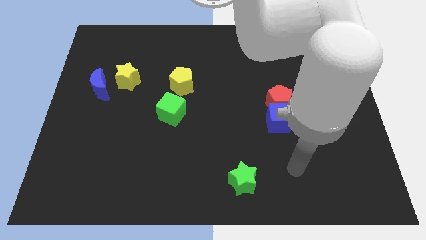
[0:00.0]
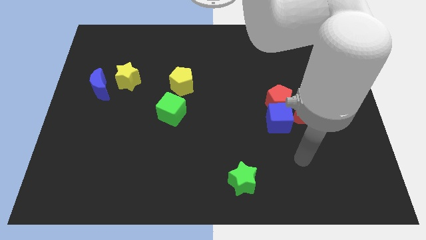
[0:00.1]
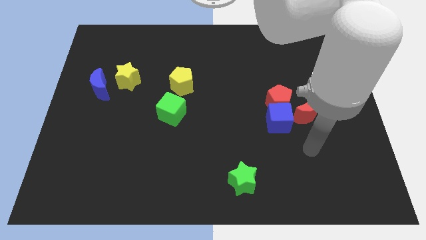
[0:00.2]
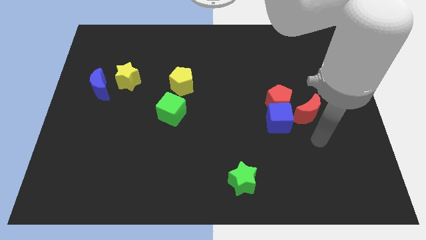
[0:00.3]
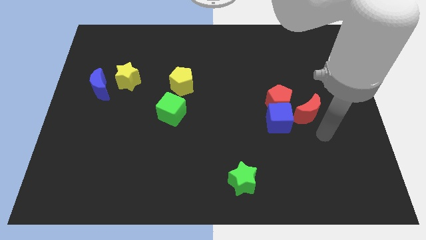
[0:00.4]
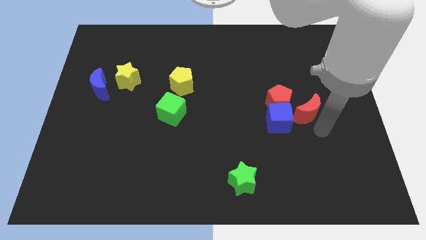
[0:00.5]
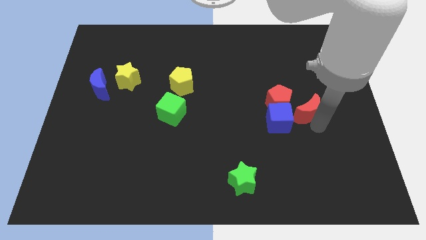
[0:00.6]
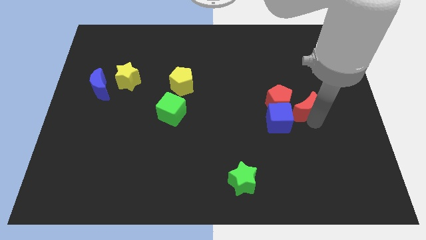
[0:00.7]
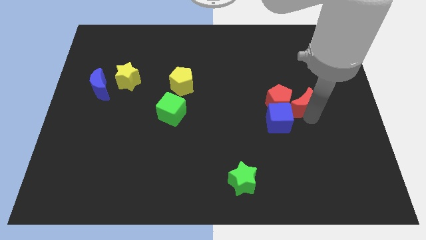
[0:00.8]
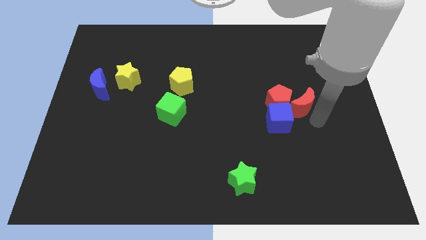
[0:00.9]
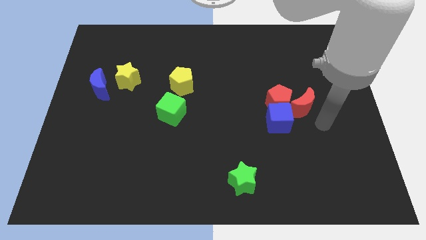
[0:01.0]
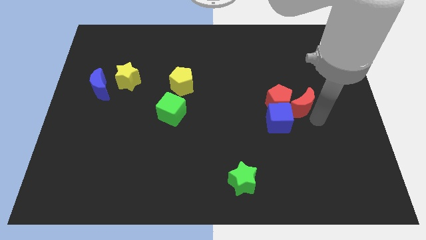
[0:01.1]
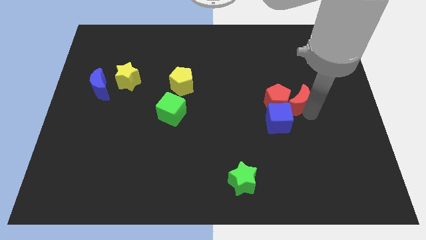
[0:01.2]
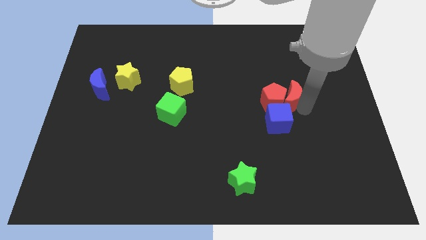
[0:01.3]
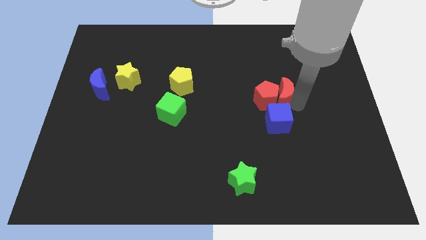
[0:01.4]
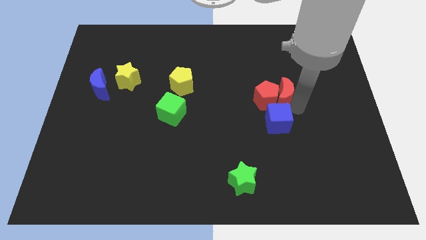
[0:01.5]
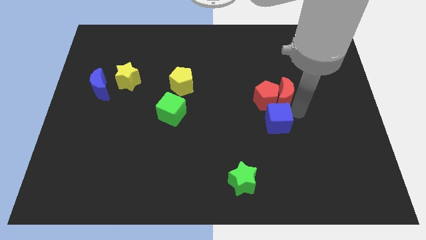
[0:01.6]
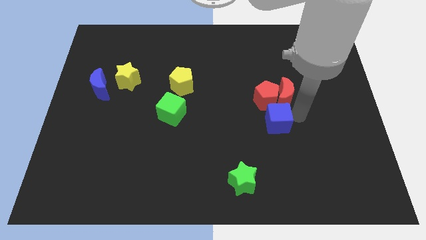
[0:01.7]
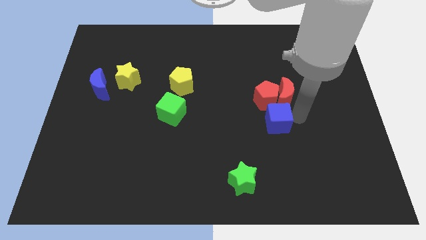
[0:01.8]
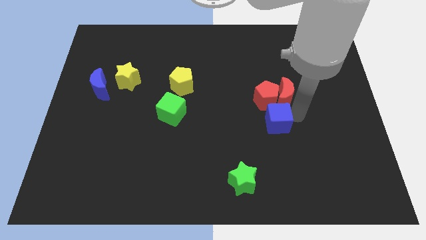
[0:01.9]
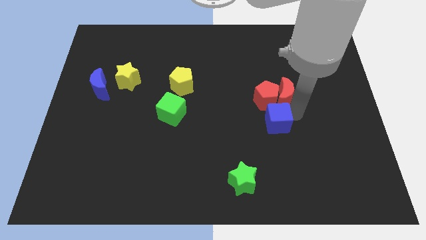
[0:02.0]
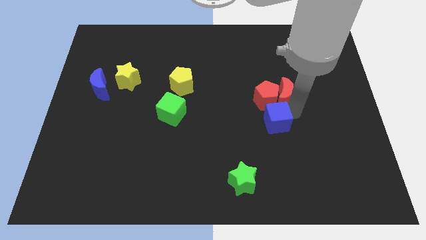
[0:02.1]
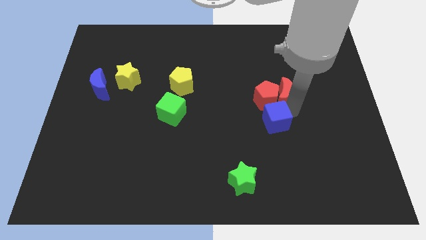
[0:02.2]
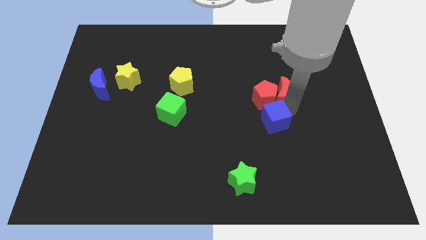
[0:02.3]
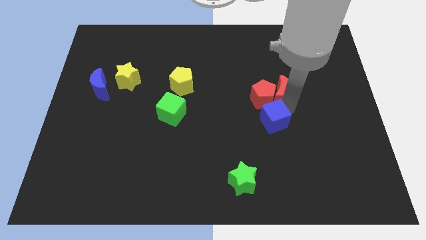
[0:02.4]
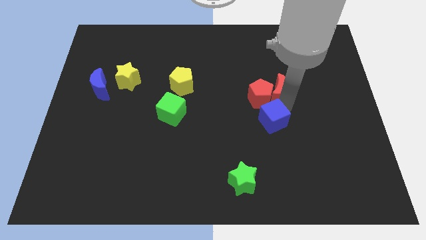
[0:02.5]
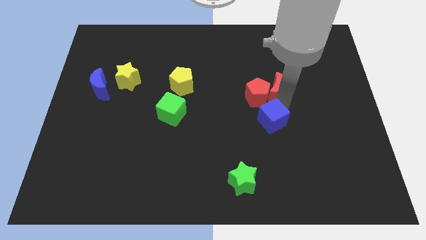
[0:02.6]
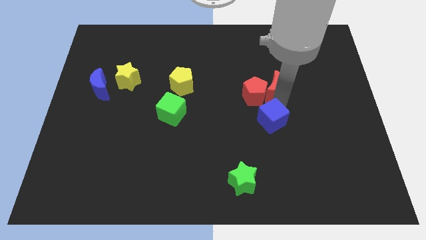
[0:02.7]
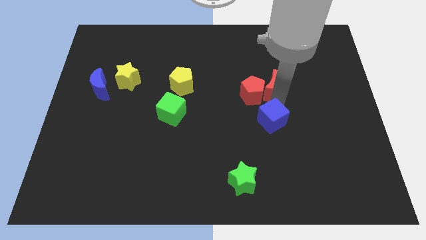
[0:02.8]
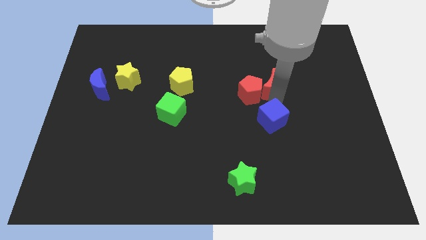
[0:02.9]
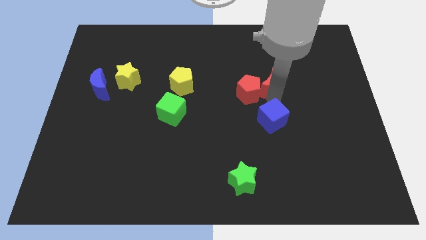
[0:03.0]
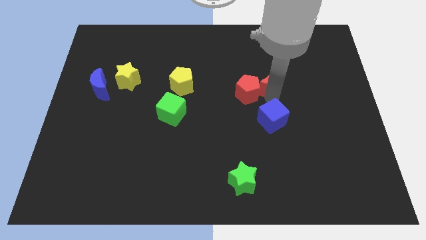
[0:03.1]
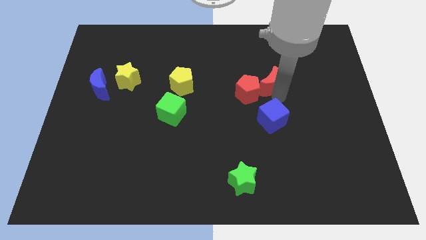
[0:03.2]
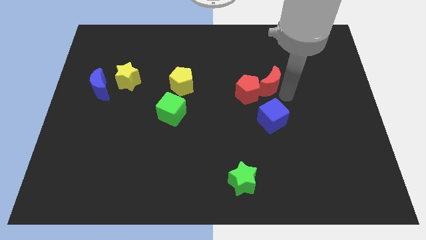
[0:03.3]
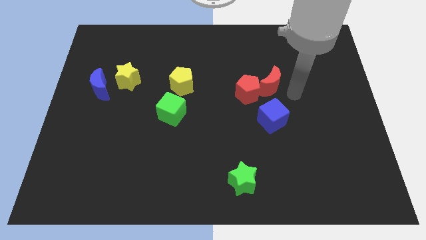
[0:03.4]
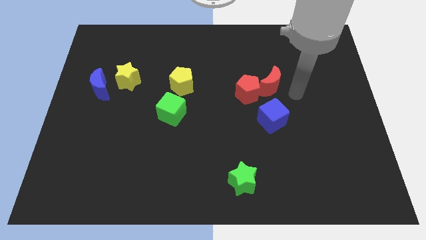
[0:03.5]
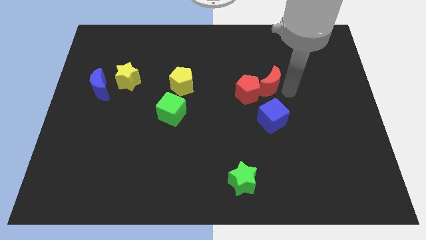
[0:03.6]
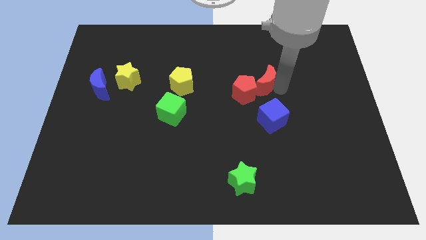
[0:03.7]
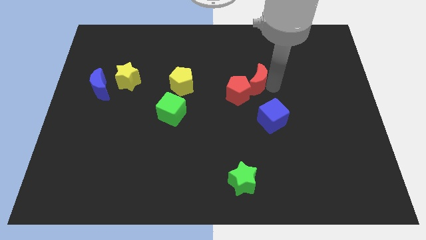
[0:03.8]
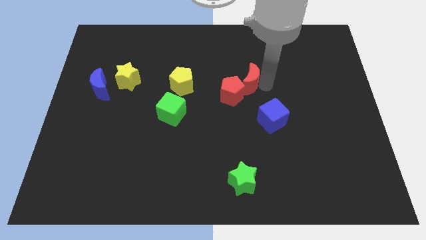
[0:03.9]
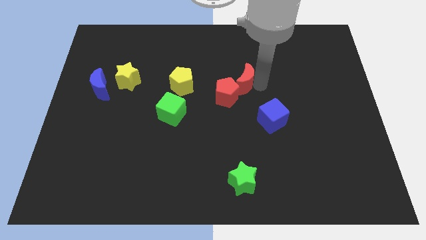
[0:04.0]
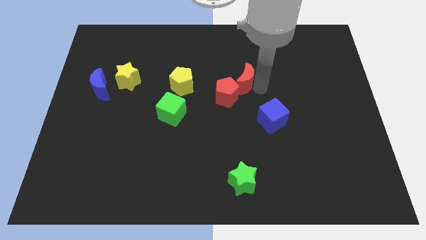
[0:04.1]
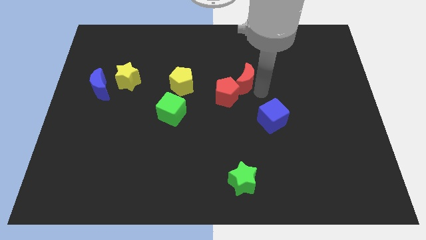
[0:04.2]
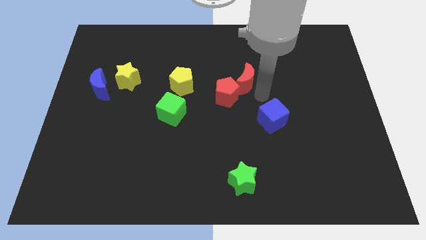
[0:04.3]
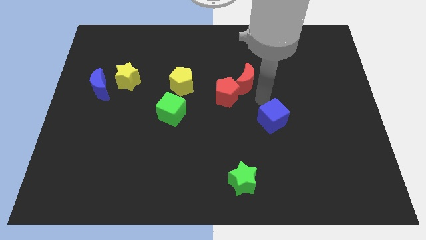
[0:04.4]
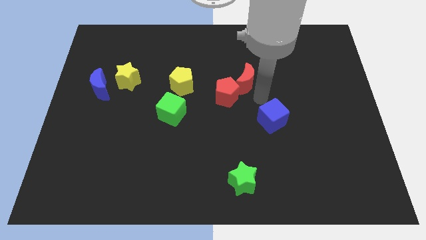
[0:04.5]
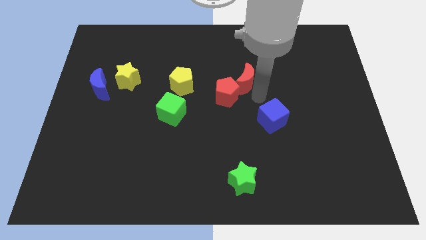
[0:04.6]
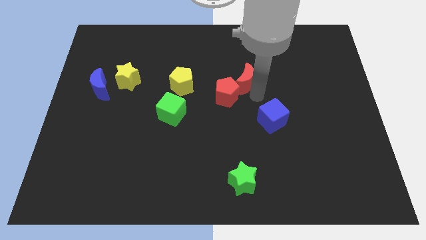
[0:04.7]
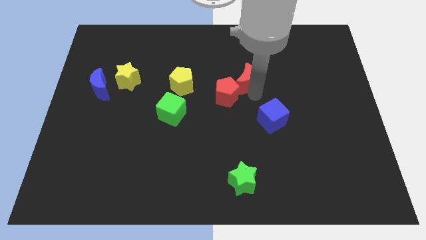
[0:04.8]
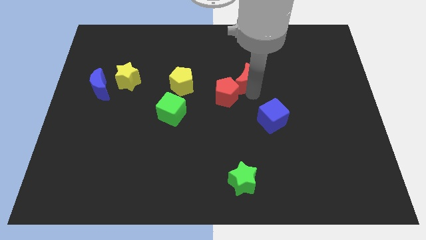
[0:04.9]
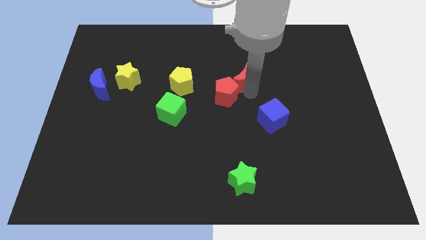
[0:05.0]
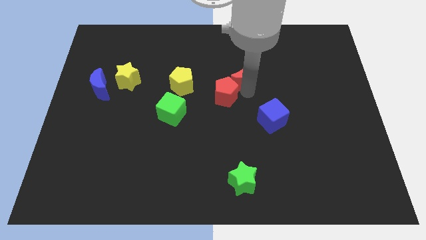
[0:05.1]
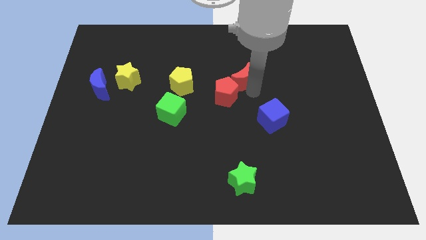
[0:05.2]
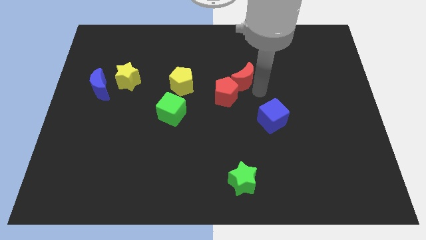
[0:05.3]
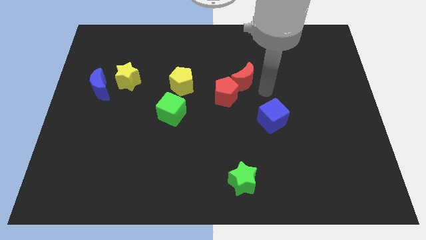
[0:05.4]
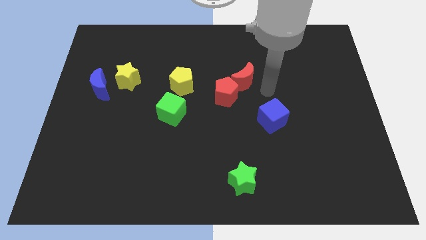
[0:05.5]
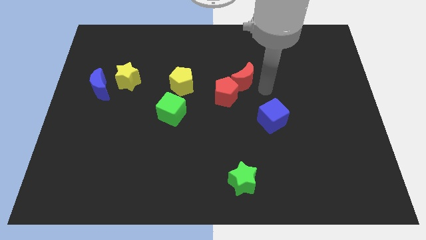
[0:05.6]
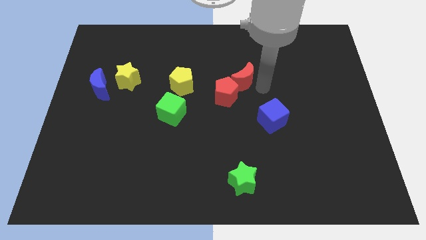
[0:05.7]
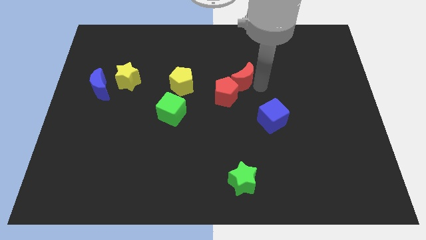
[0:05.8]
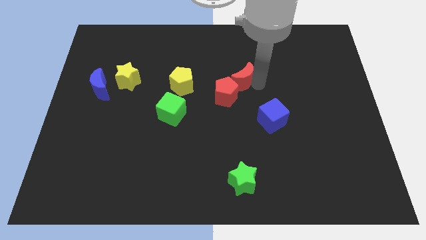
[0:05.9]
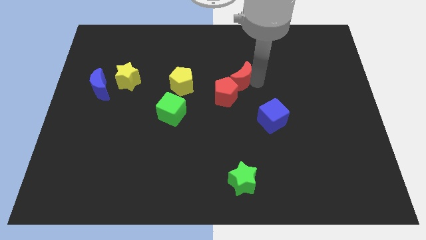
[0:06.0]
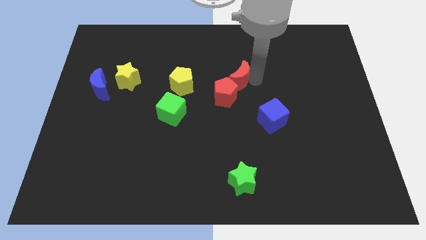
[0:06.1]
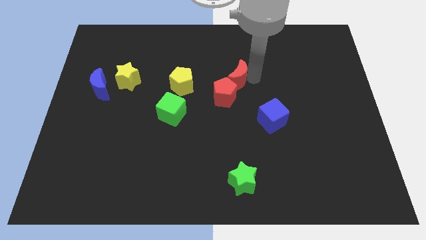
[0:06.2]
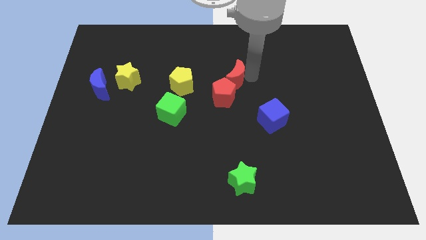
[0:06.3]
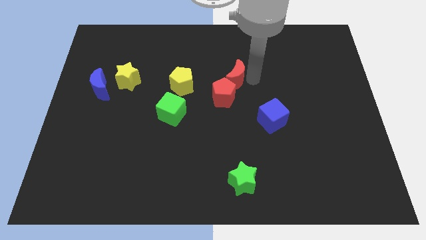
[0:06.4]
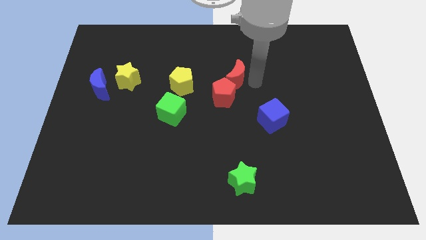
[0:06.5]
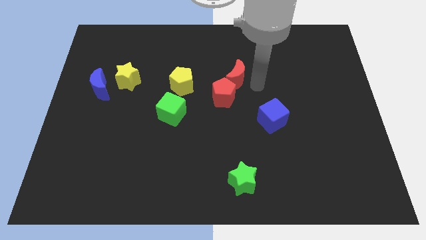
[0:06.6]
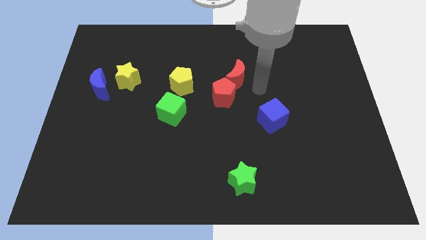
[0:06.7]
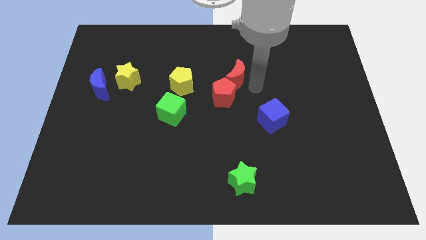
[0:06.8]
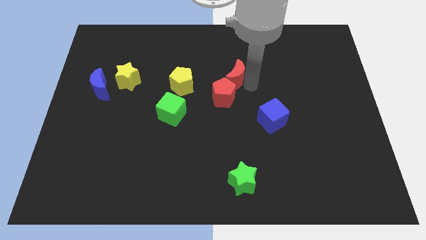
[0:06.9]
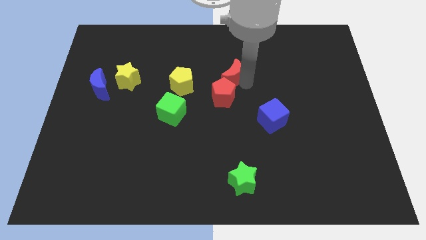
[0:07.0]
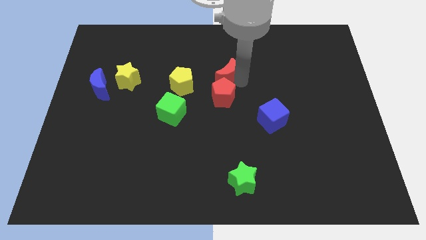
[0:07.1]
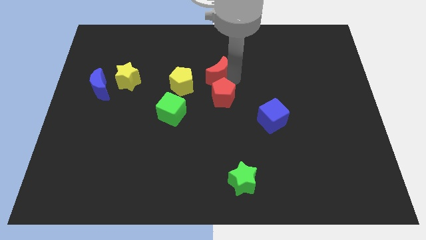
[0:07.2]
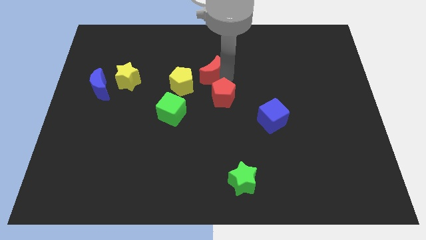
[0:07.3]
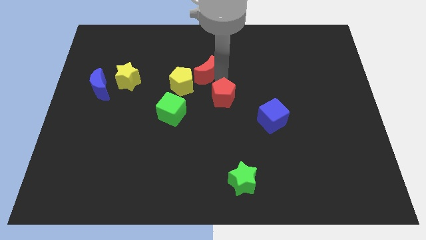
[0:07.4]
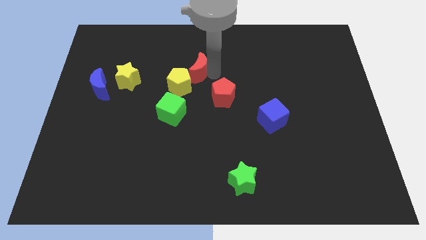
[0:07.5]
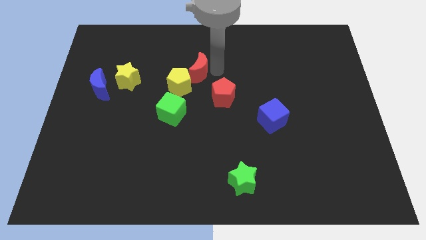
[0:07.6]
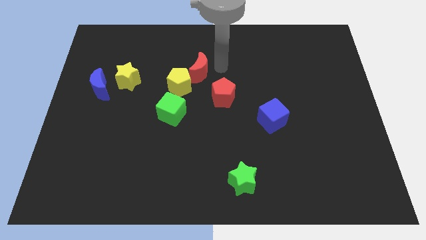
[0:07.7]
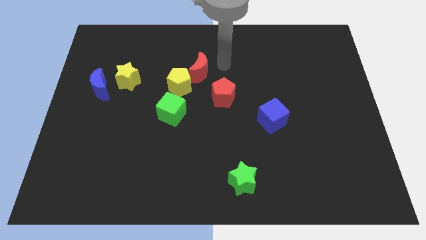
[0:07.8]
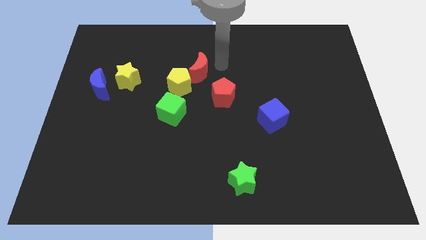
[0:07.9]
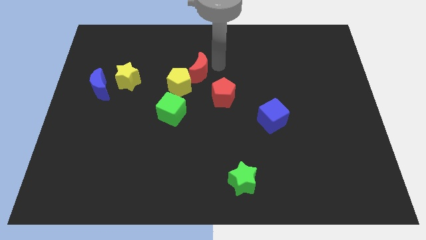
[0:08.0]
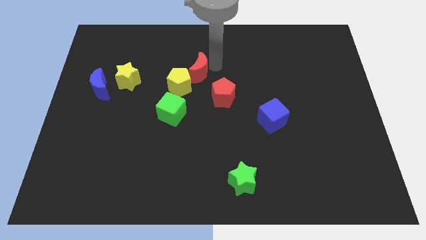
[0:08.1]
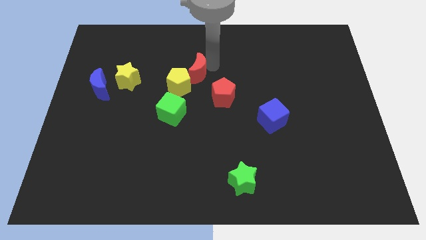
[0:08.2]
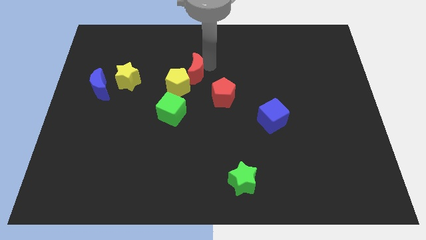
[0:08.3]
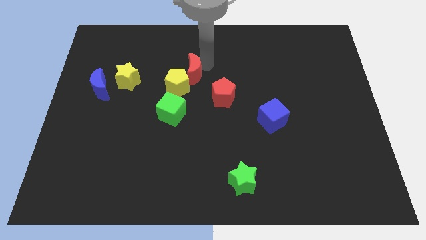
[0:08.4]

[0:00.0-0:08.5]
move the red moon to the top of the green cube

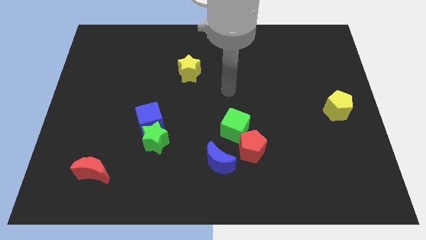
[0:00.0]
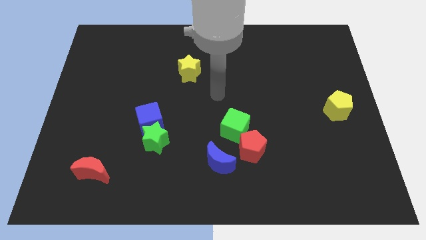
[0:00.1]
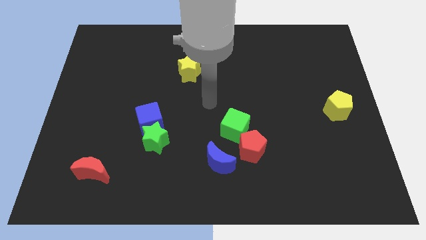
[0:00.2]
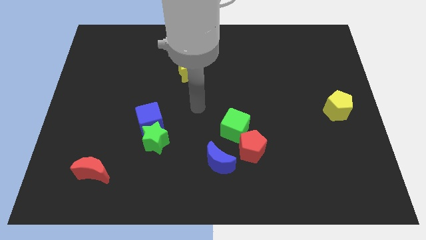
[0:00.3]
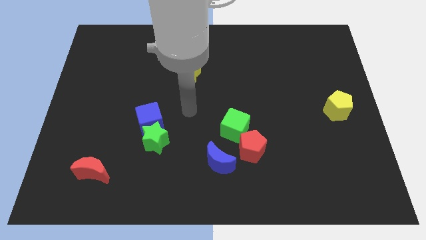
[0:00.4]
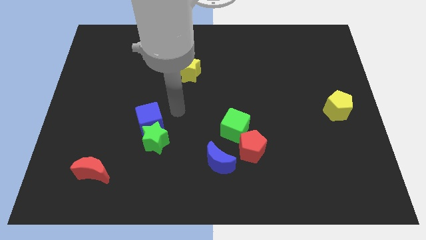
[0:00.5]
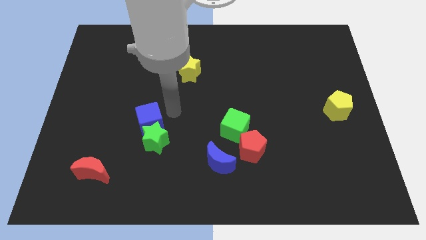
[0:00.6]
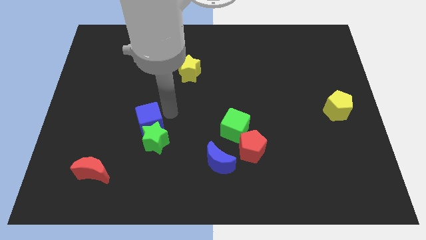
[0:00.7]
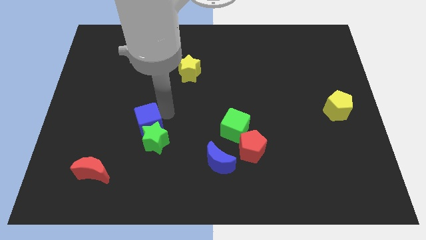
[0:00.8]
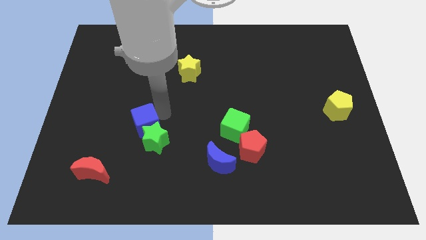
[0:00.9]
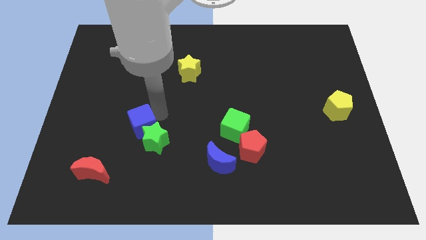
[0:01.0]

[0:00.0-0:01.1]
move the blue cube to the left of the green star
